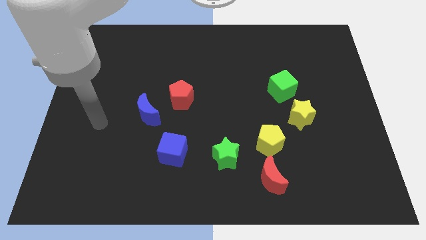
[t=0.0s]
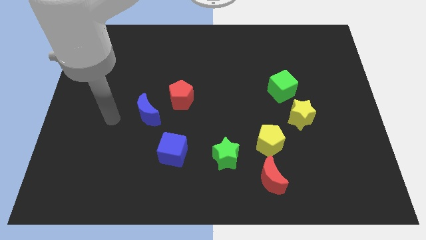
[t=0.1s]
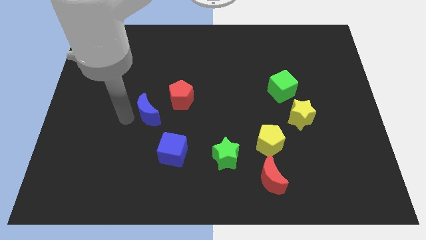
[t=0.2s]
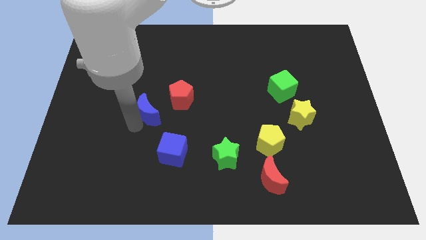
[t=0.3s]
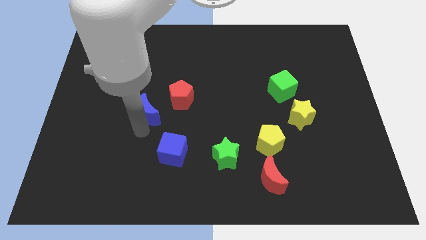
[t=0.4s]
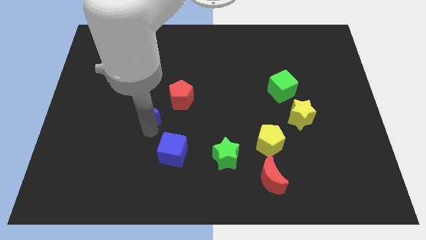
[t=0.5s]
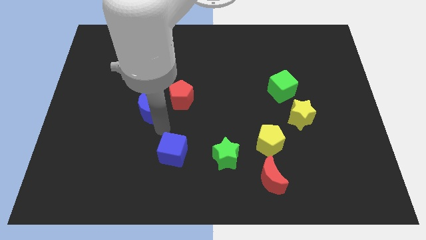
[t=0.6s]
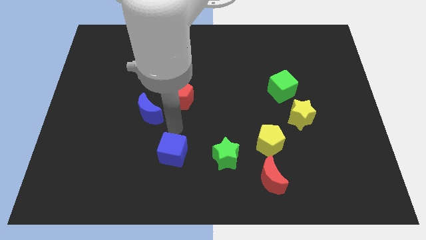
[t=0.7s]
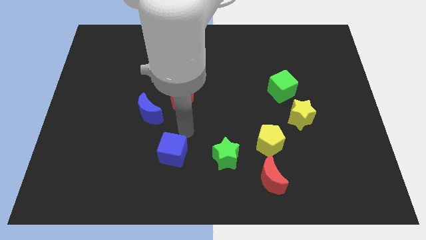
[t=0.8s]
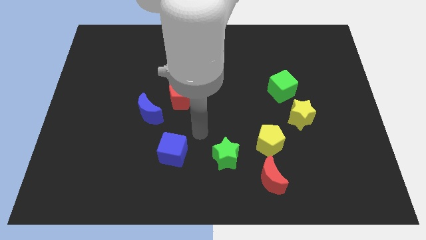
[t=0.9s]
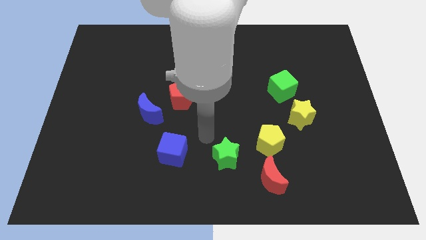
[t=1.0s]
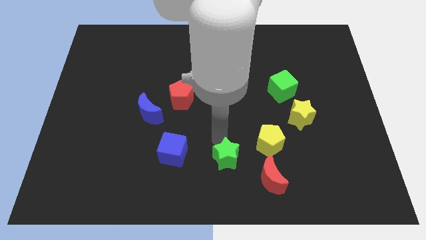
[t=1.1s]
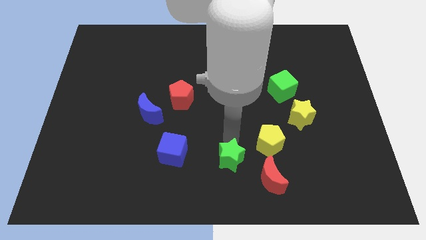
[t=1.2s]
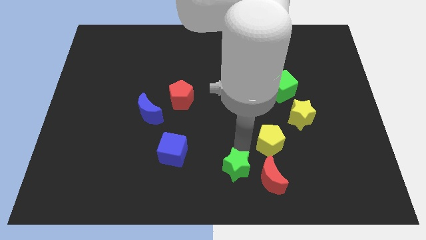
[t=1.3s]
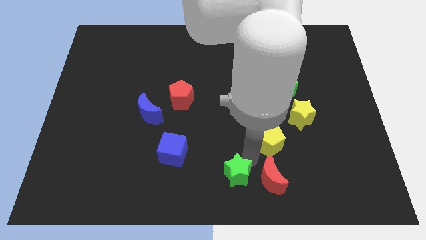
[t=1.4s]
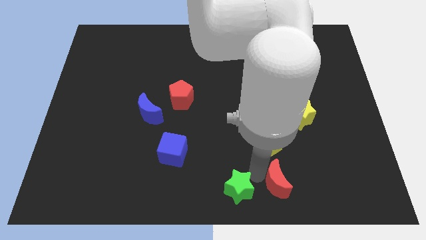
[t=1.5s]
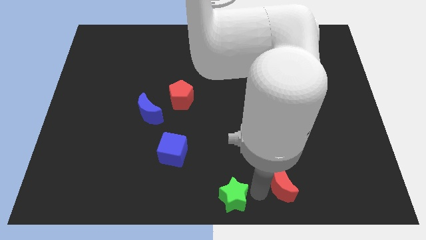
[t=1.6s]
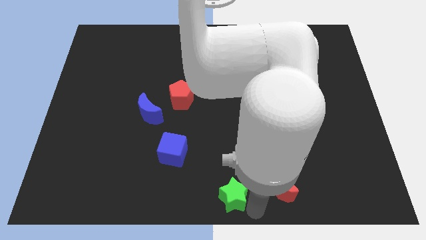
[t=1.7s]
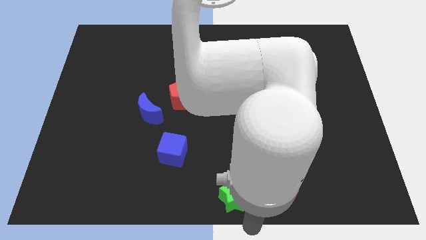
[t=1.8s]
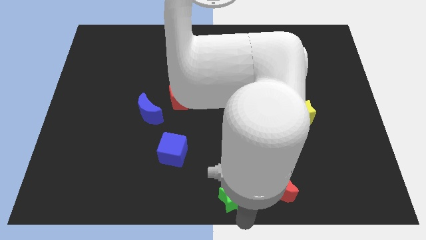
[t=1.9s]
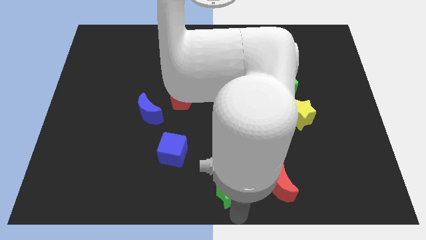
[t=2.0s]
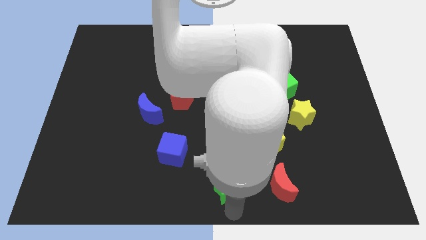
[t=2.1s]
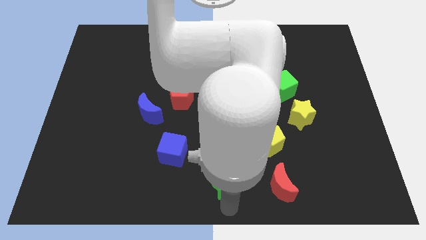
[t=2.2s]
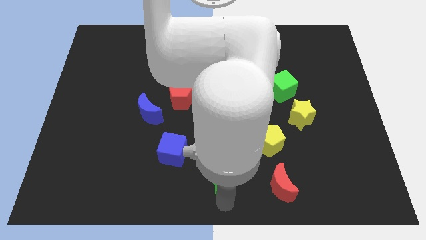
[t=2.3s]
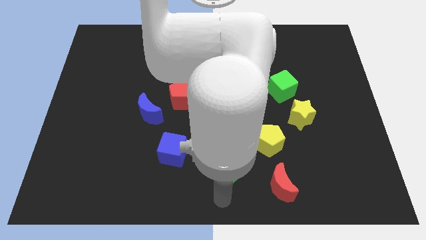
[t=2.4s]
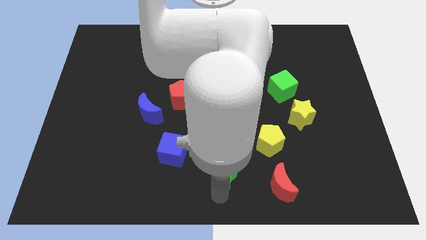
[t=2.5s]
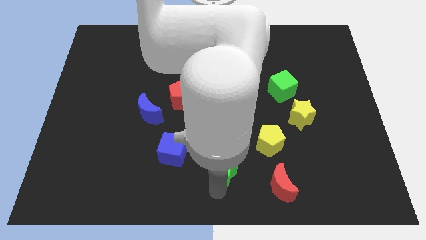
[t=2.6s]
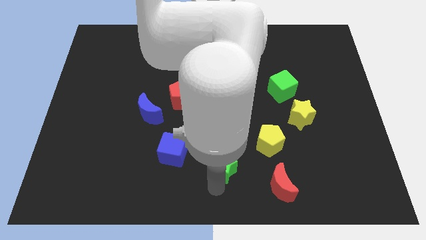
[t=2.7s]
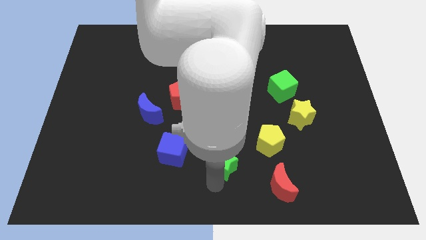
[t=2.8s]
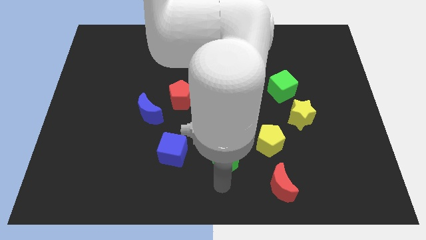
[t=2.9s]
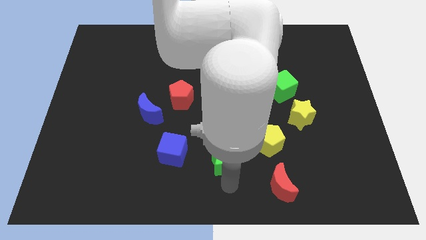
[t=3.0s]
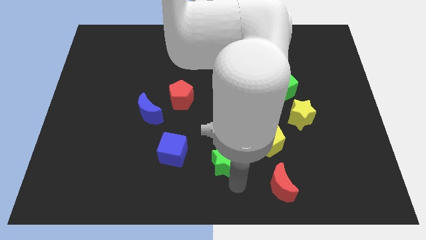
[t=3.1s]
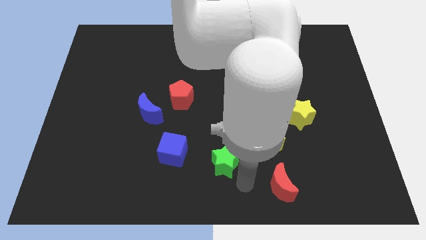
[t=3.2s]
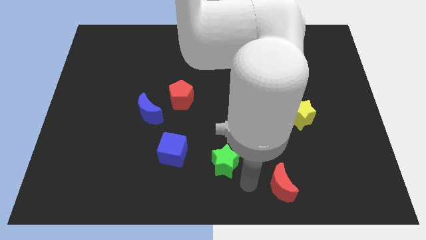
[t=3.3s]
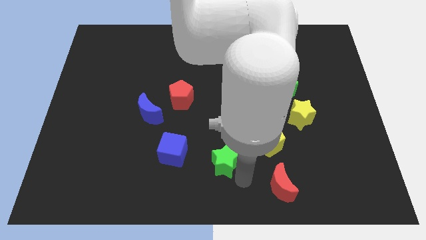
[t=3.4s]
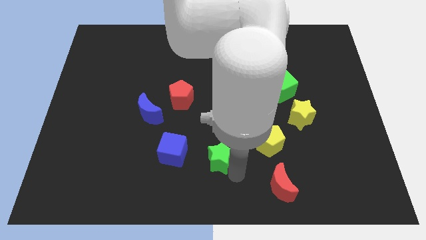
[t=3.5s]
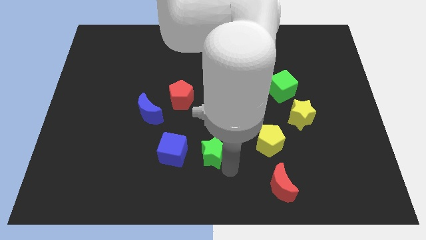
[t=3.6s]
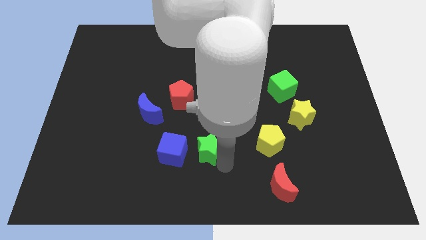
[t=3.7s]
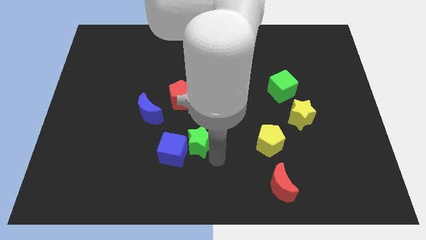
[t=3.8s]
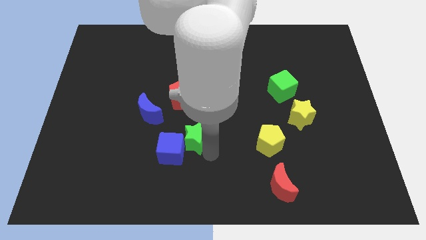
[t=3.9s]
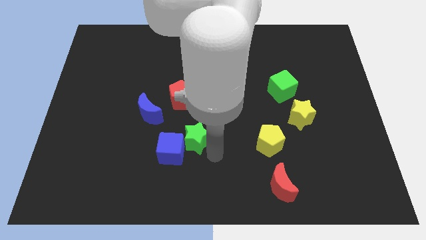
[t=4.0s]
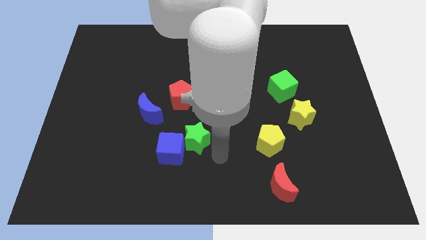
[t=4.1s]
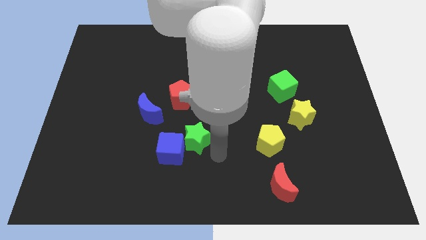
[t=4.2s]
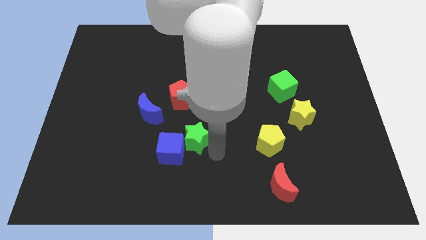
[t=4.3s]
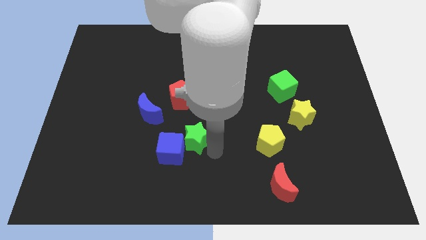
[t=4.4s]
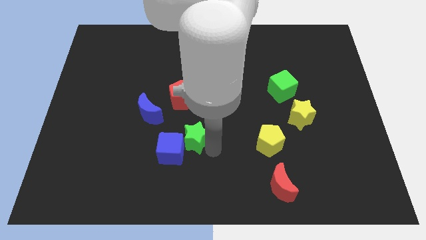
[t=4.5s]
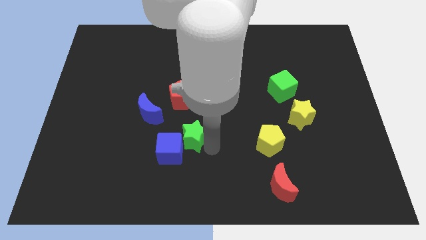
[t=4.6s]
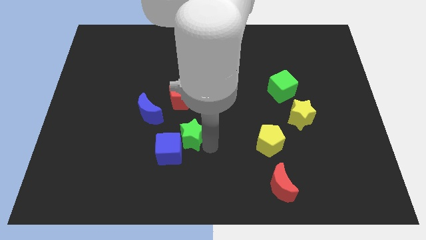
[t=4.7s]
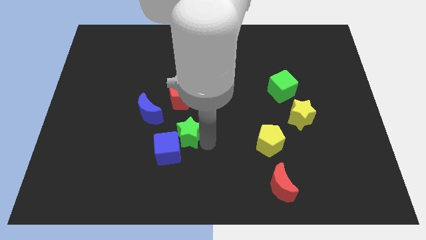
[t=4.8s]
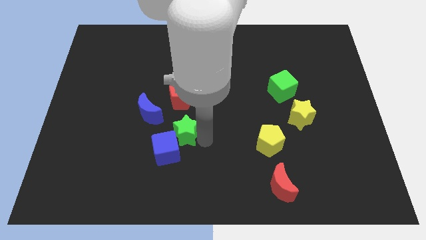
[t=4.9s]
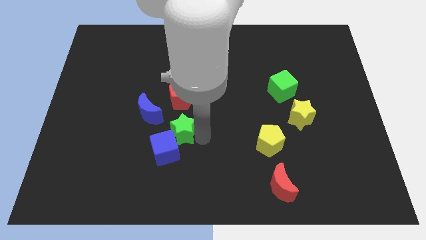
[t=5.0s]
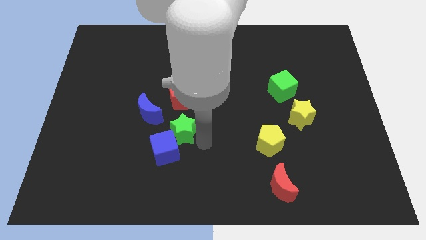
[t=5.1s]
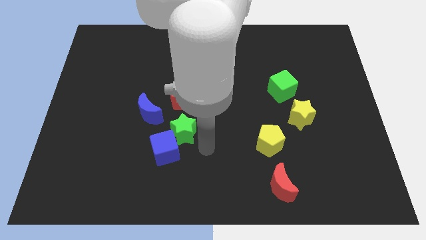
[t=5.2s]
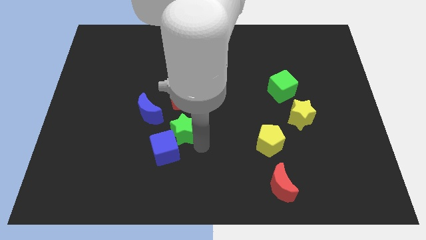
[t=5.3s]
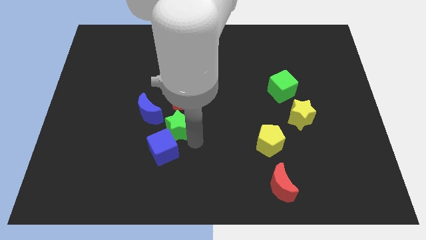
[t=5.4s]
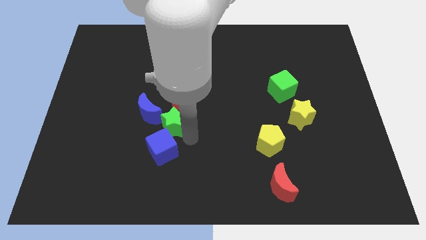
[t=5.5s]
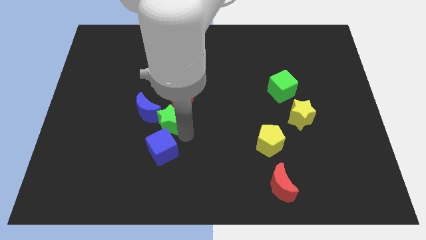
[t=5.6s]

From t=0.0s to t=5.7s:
move the green star towards the blue moon

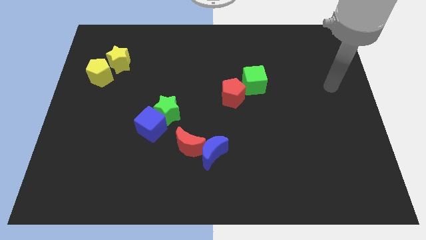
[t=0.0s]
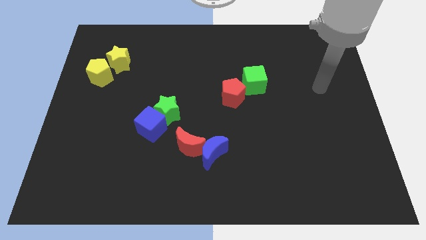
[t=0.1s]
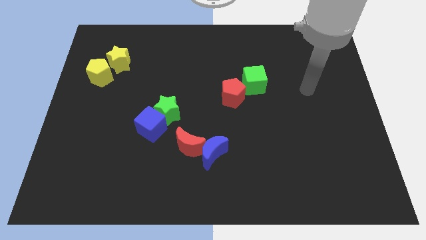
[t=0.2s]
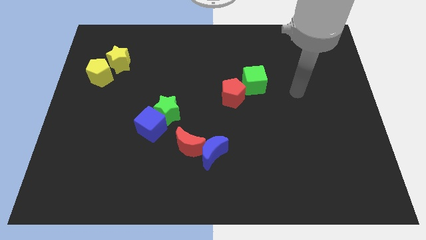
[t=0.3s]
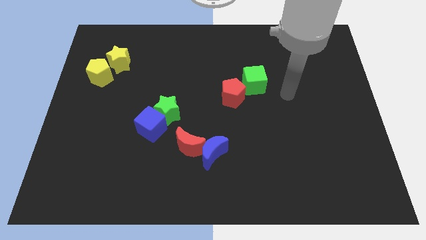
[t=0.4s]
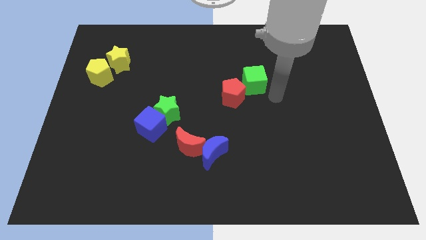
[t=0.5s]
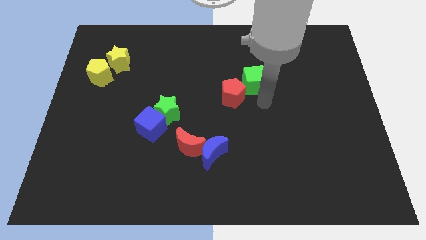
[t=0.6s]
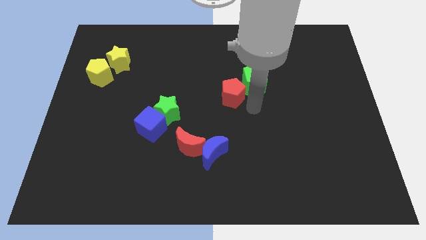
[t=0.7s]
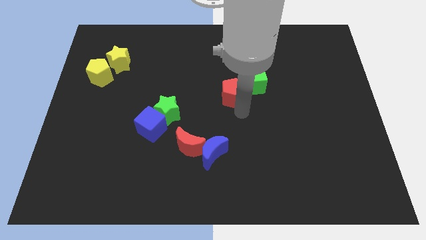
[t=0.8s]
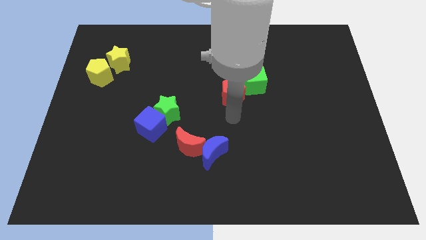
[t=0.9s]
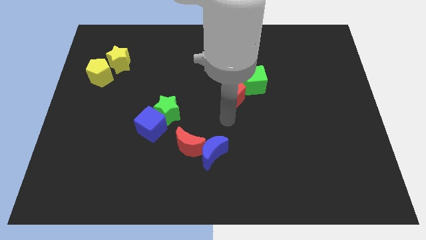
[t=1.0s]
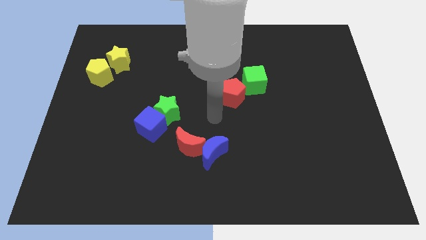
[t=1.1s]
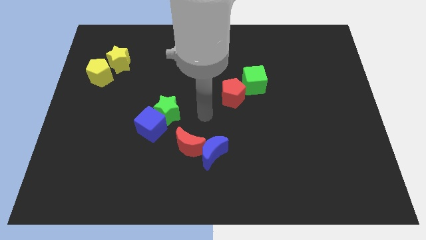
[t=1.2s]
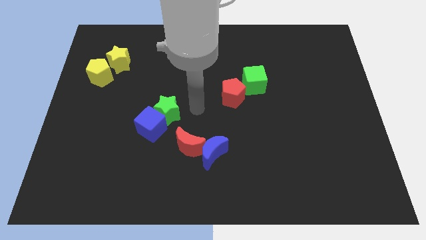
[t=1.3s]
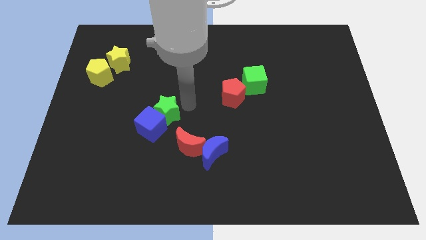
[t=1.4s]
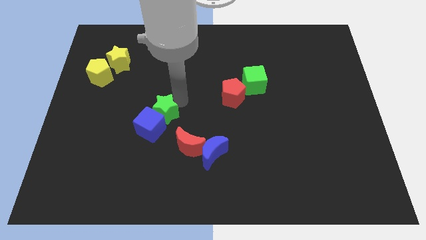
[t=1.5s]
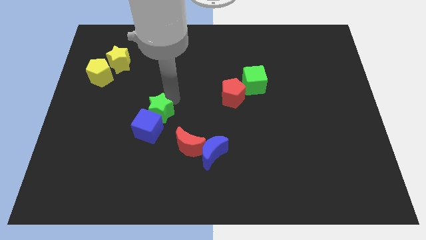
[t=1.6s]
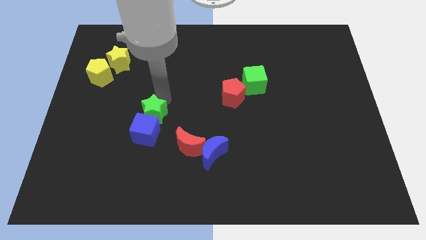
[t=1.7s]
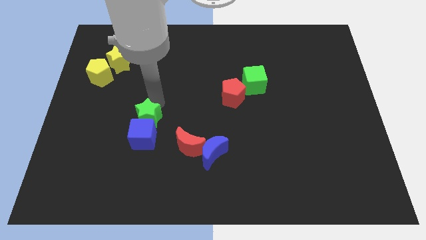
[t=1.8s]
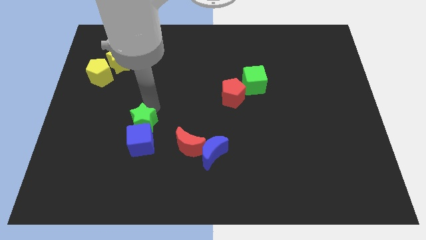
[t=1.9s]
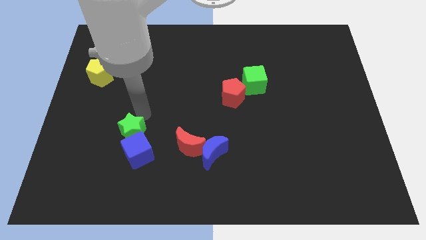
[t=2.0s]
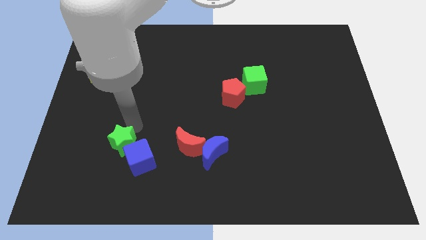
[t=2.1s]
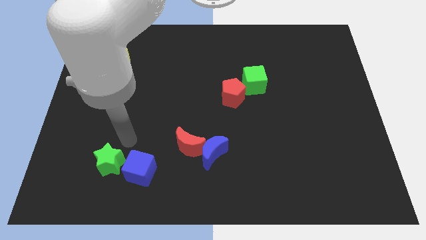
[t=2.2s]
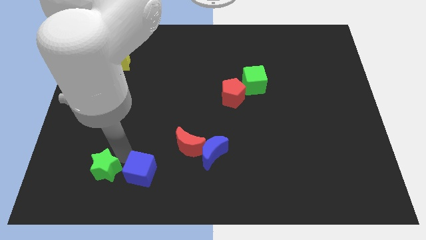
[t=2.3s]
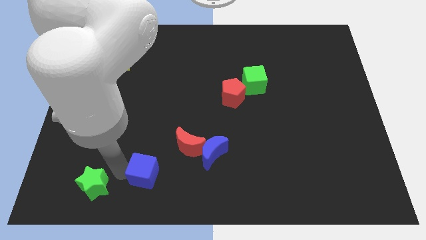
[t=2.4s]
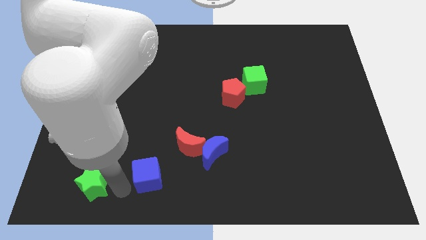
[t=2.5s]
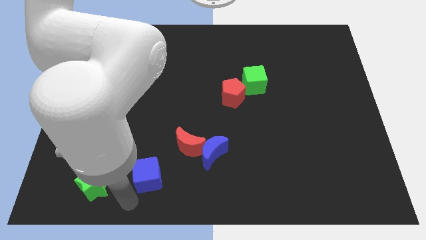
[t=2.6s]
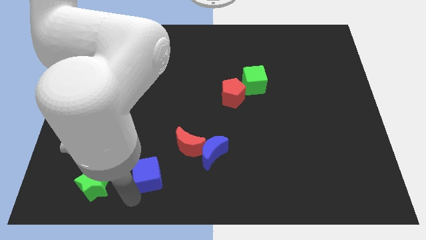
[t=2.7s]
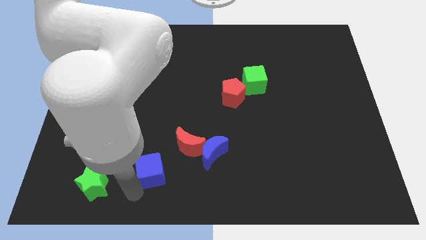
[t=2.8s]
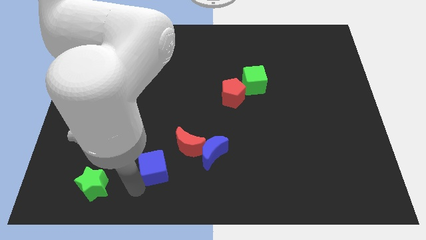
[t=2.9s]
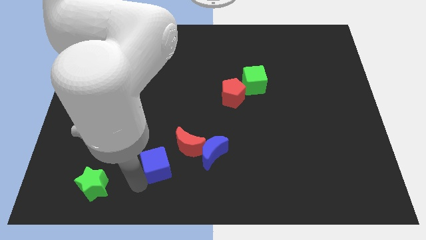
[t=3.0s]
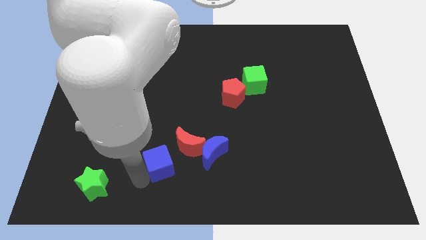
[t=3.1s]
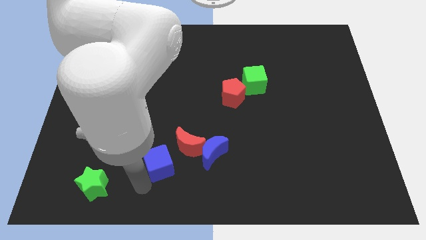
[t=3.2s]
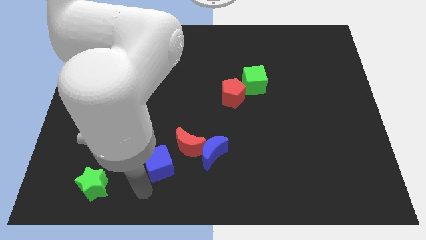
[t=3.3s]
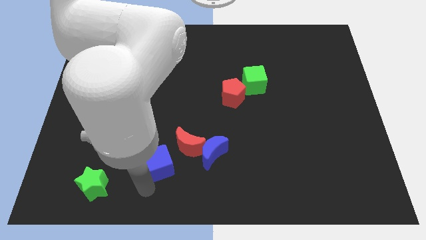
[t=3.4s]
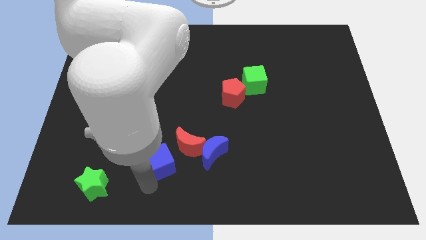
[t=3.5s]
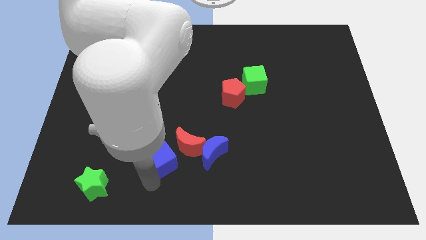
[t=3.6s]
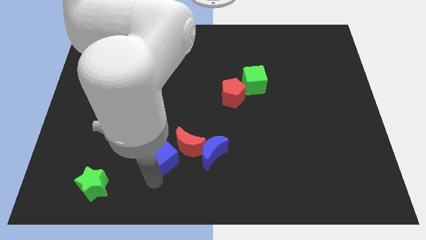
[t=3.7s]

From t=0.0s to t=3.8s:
move the blue cube close to the red moon
